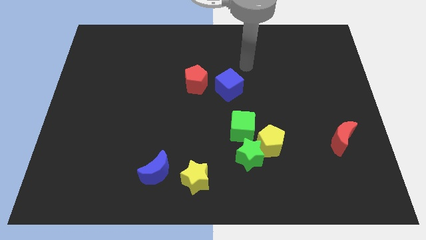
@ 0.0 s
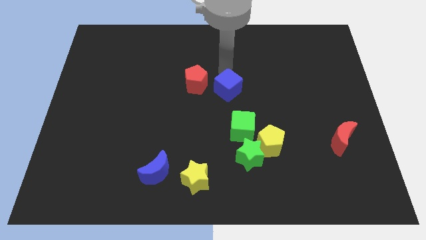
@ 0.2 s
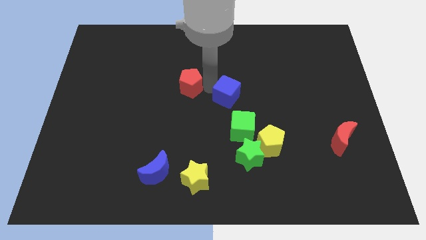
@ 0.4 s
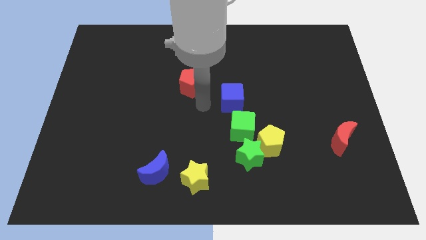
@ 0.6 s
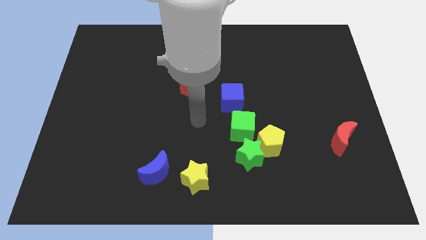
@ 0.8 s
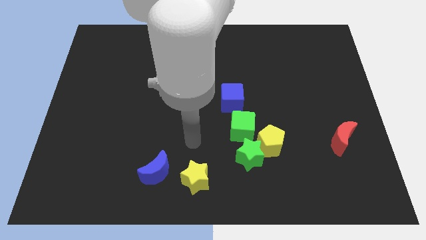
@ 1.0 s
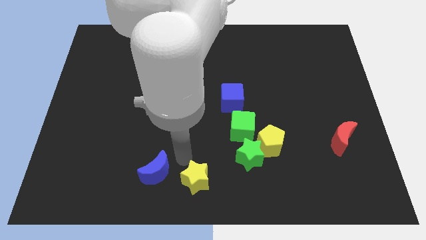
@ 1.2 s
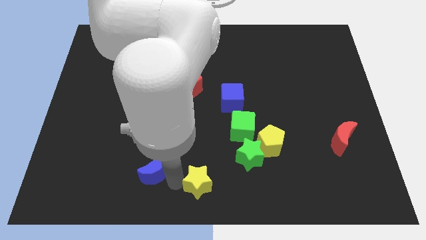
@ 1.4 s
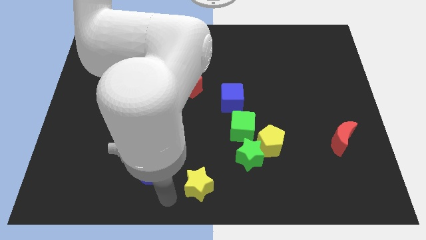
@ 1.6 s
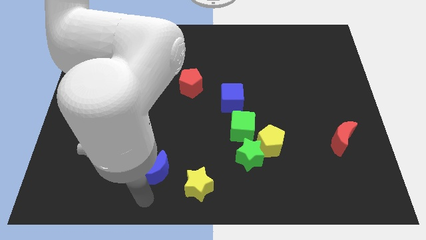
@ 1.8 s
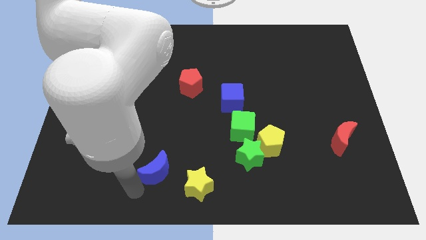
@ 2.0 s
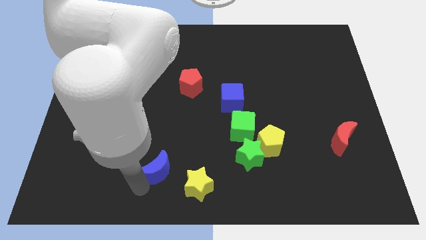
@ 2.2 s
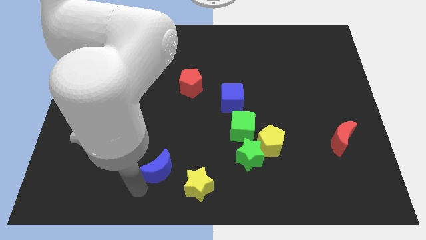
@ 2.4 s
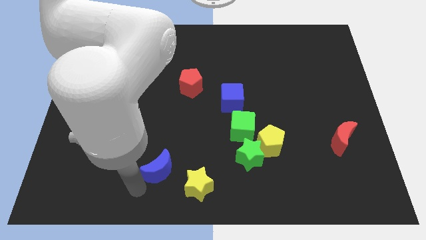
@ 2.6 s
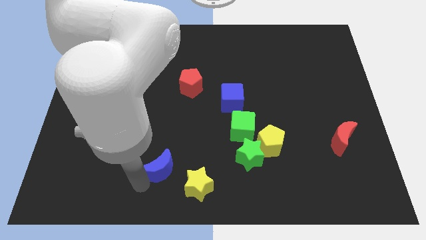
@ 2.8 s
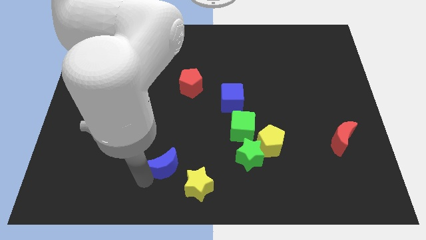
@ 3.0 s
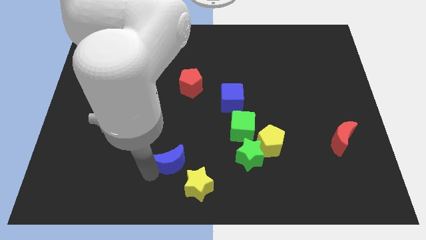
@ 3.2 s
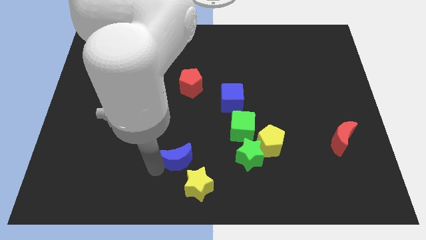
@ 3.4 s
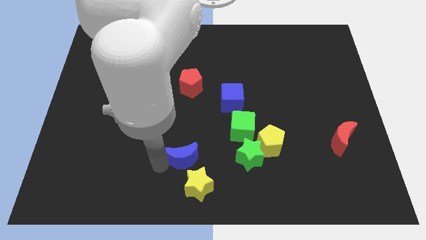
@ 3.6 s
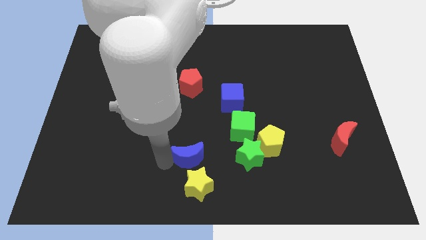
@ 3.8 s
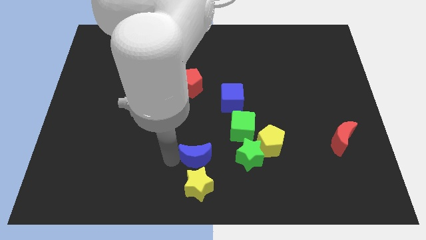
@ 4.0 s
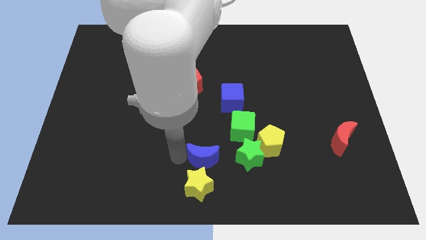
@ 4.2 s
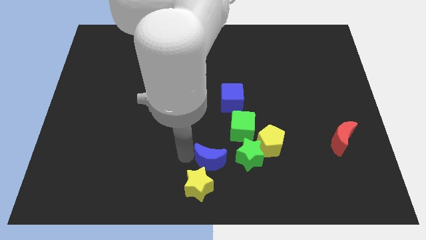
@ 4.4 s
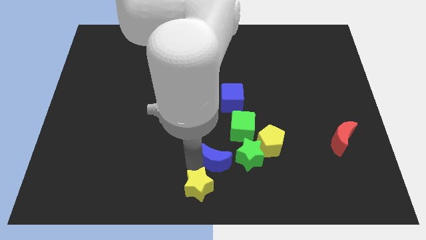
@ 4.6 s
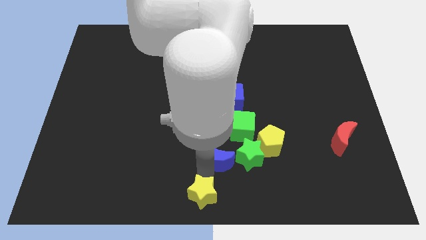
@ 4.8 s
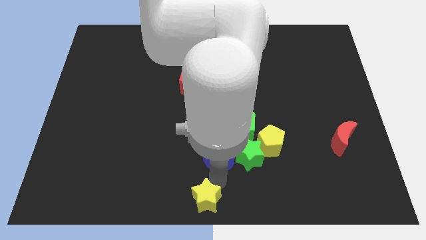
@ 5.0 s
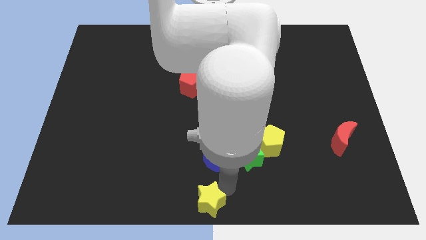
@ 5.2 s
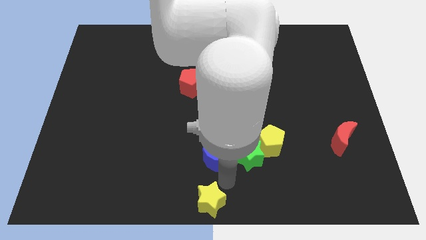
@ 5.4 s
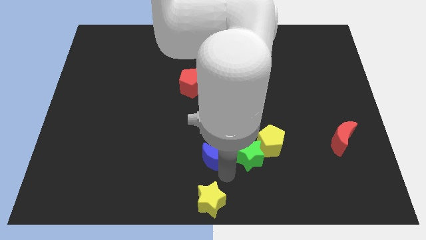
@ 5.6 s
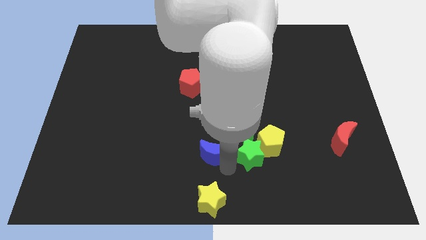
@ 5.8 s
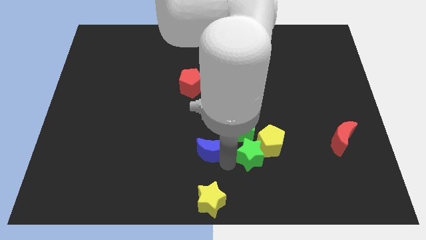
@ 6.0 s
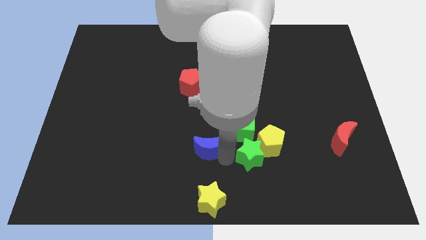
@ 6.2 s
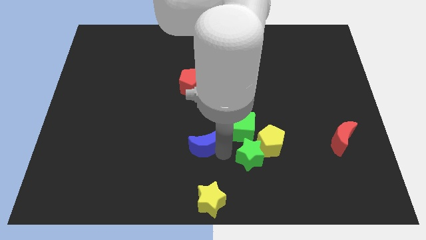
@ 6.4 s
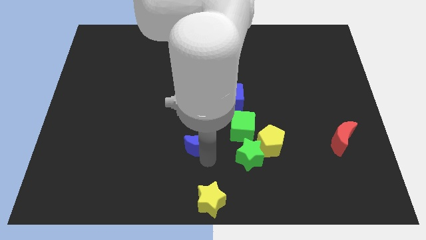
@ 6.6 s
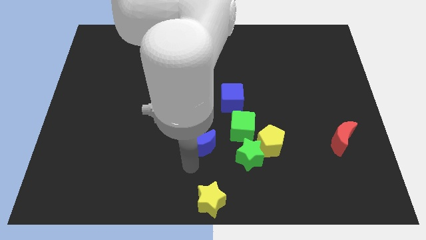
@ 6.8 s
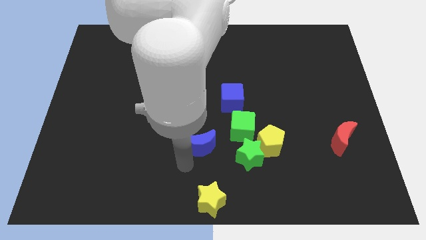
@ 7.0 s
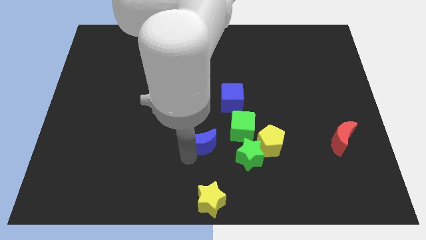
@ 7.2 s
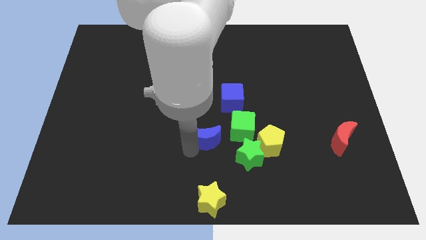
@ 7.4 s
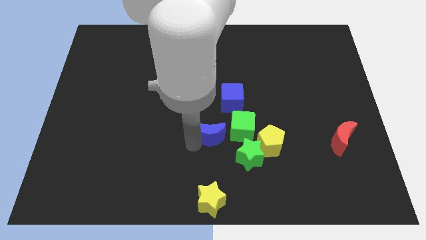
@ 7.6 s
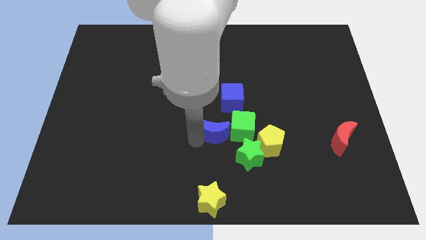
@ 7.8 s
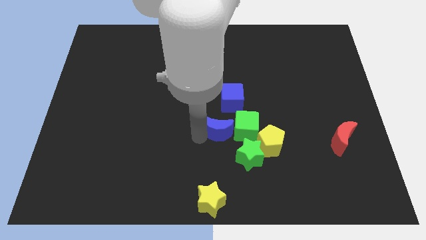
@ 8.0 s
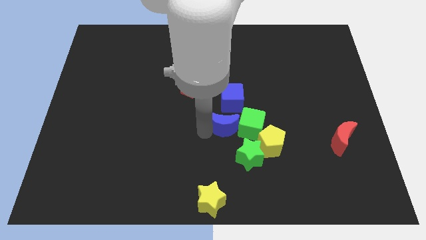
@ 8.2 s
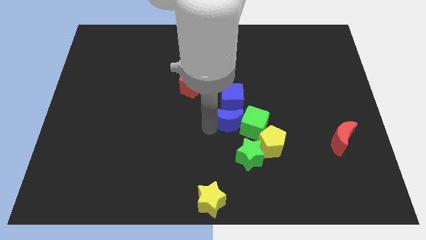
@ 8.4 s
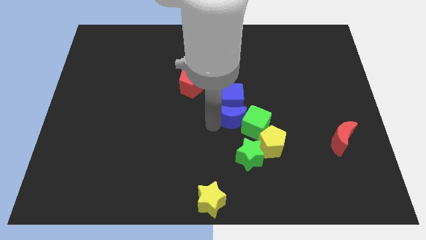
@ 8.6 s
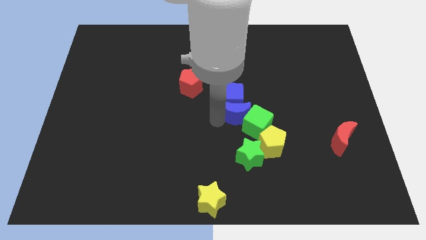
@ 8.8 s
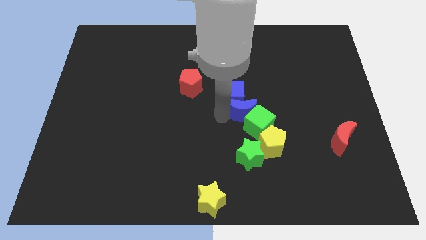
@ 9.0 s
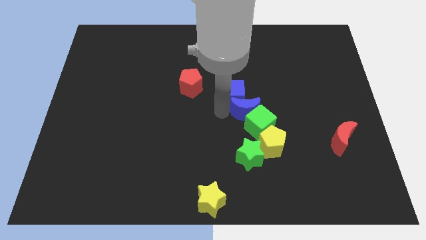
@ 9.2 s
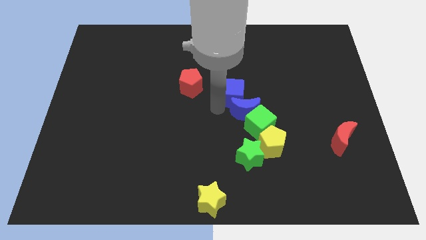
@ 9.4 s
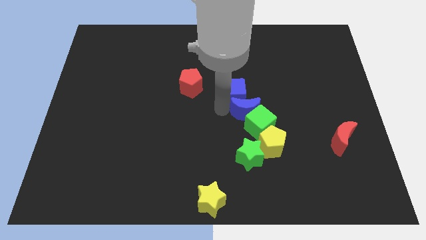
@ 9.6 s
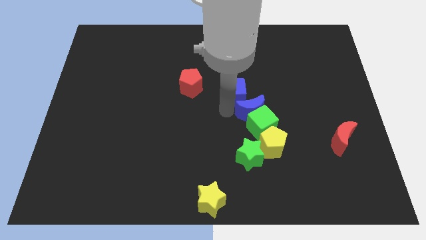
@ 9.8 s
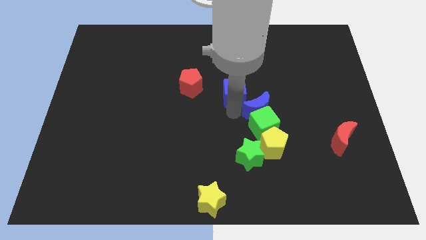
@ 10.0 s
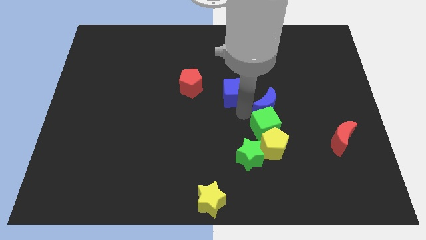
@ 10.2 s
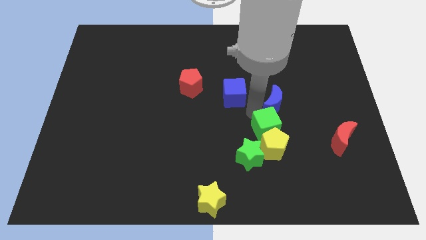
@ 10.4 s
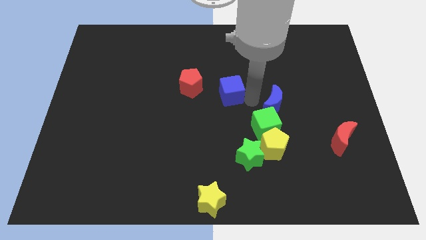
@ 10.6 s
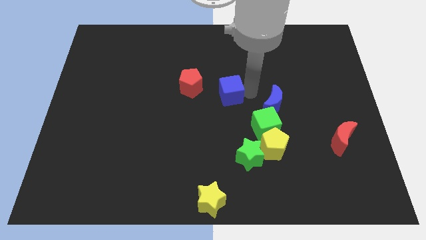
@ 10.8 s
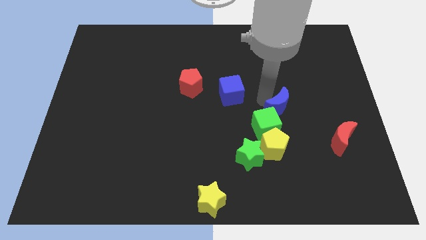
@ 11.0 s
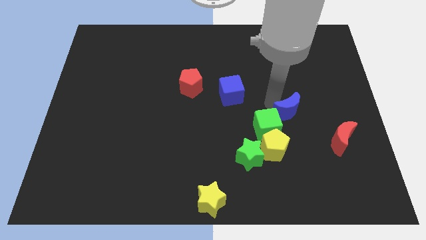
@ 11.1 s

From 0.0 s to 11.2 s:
push the blue moon to the right of the green cube

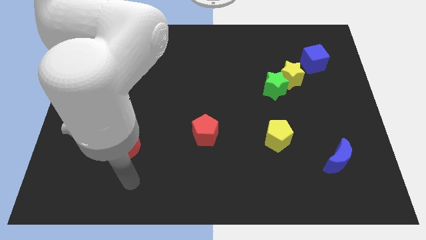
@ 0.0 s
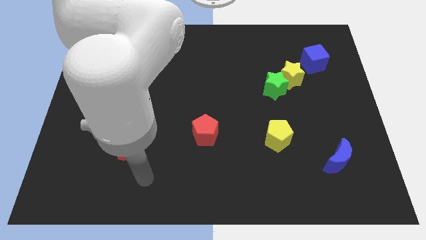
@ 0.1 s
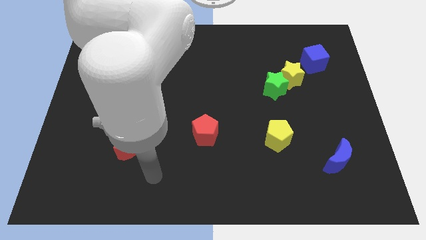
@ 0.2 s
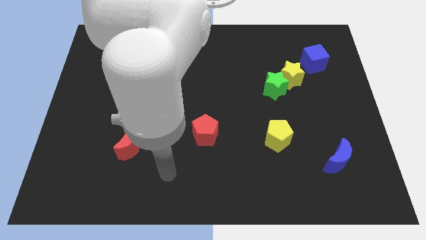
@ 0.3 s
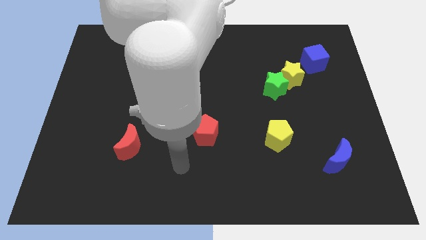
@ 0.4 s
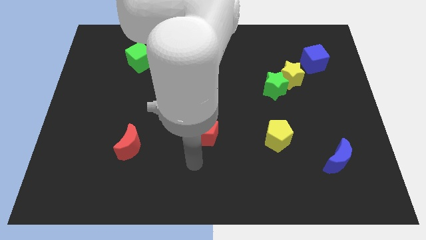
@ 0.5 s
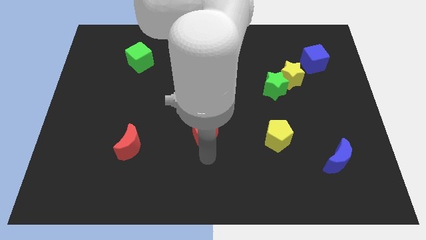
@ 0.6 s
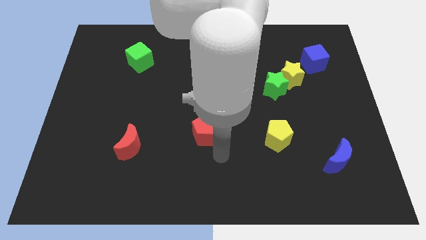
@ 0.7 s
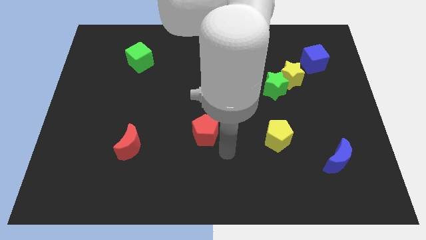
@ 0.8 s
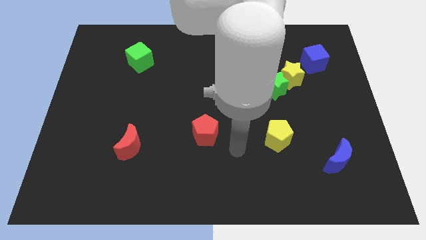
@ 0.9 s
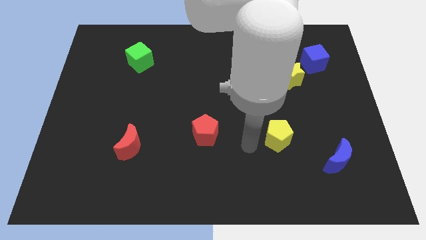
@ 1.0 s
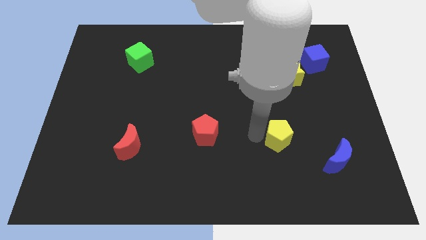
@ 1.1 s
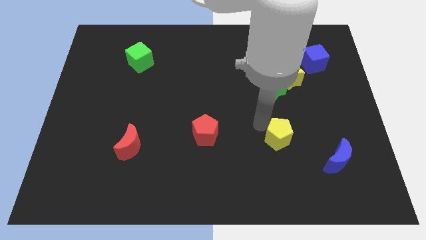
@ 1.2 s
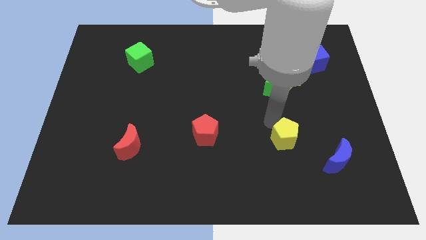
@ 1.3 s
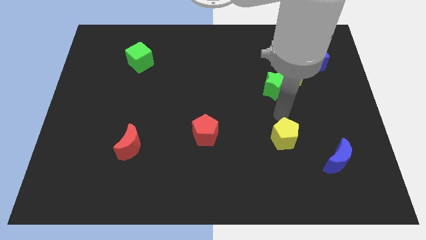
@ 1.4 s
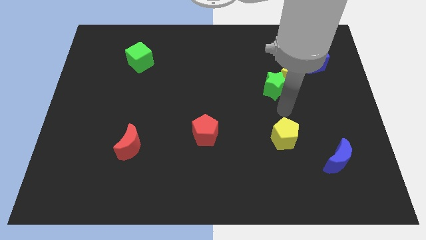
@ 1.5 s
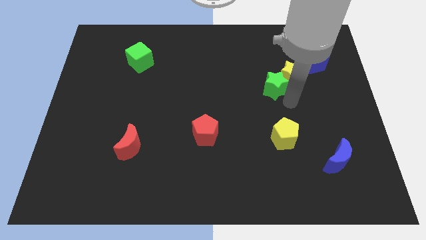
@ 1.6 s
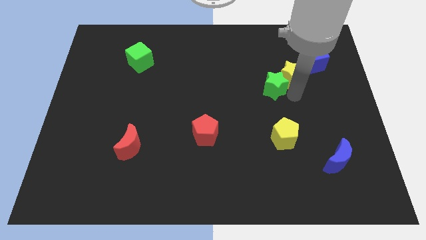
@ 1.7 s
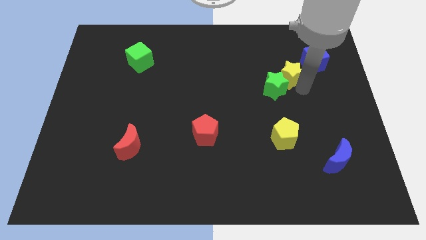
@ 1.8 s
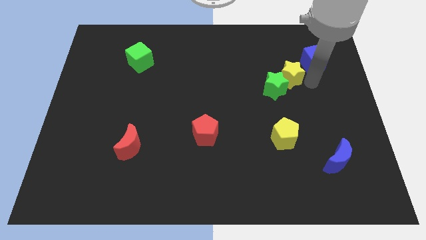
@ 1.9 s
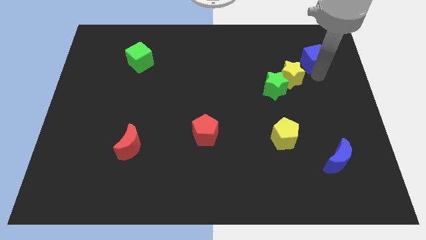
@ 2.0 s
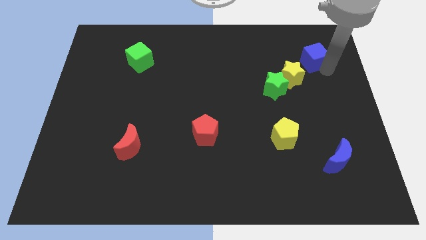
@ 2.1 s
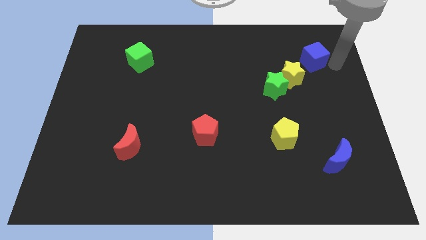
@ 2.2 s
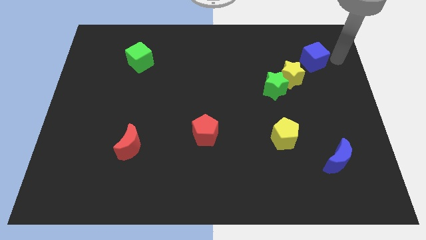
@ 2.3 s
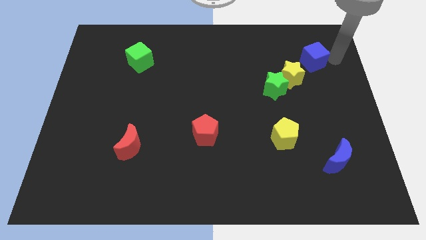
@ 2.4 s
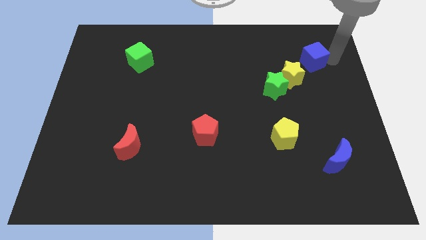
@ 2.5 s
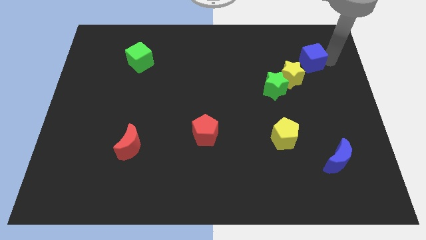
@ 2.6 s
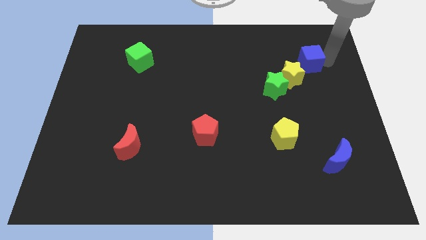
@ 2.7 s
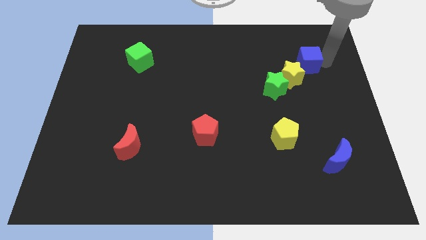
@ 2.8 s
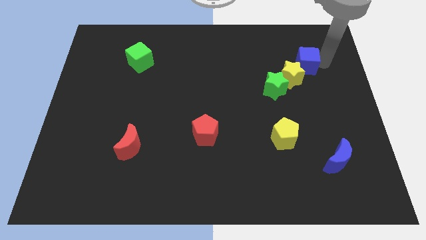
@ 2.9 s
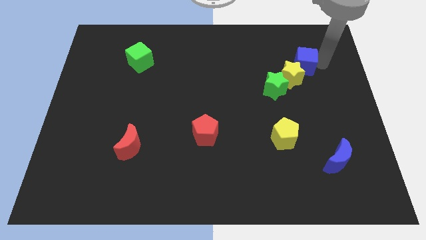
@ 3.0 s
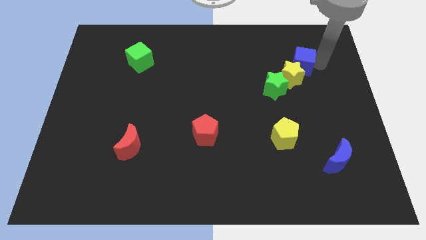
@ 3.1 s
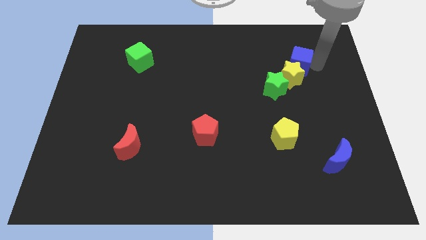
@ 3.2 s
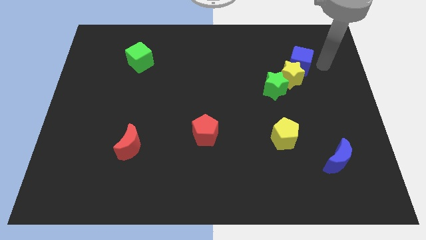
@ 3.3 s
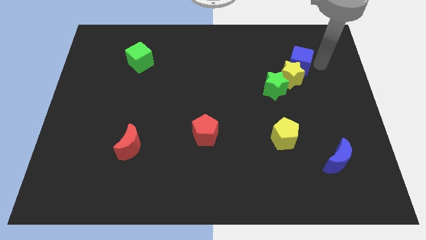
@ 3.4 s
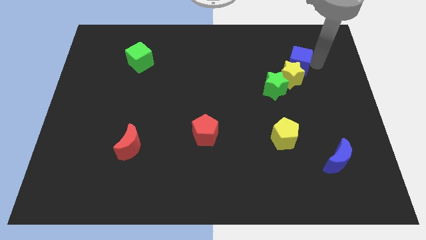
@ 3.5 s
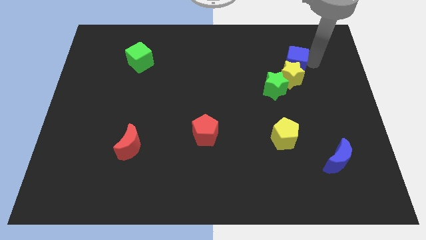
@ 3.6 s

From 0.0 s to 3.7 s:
move the blue cube to the top left of the yellow star
